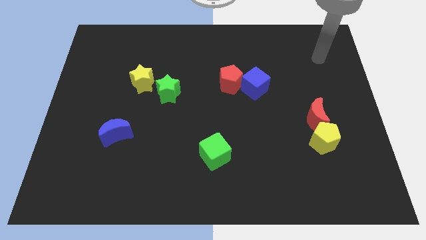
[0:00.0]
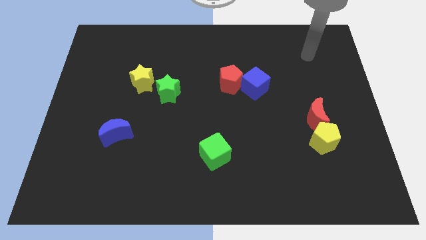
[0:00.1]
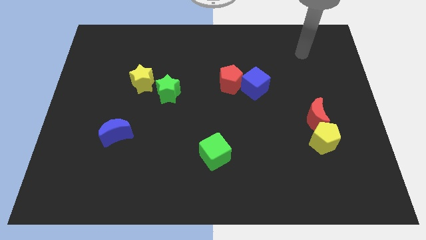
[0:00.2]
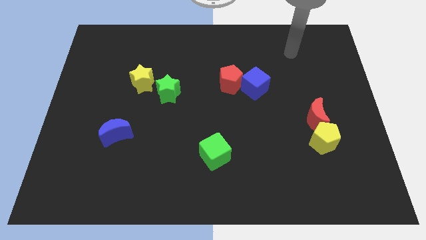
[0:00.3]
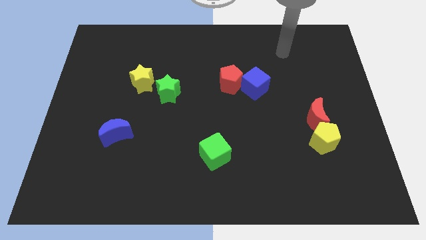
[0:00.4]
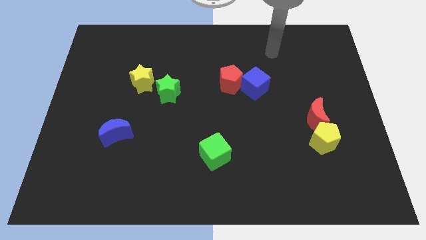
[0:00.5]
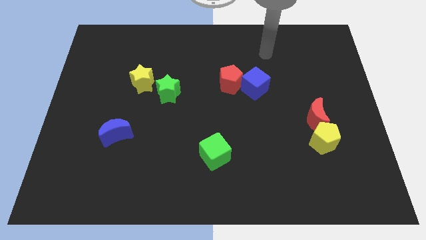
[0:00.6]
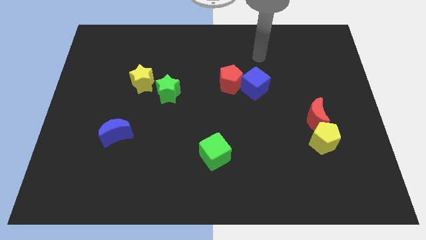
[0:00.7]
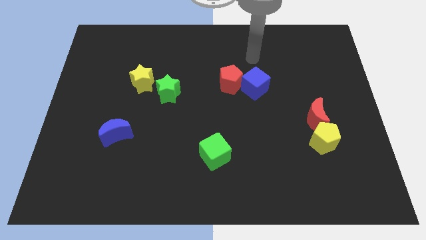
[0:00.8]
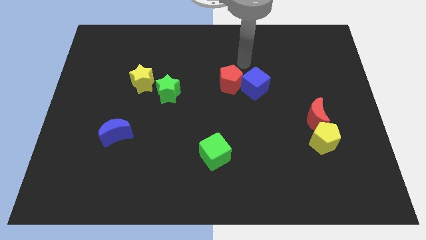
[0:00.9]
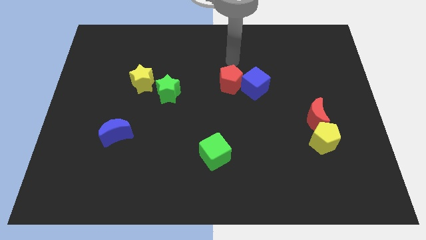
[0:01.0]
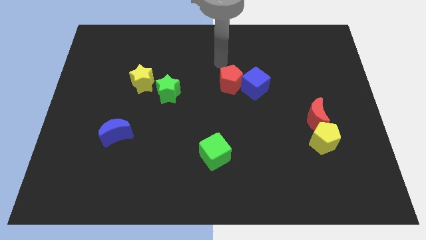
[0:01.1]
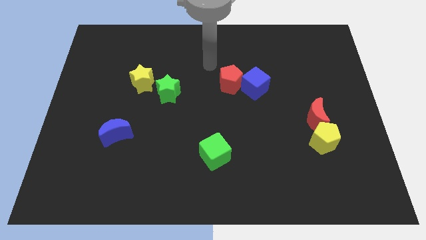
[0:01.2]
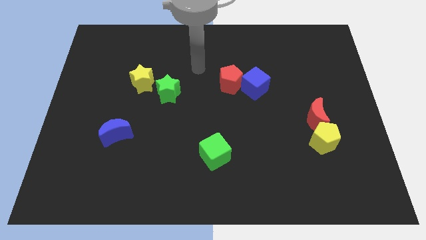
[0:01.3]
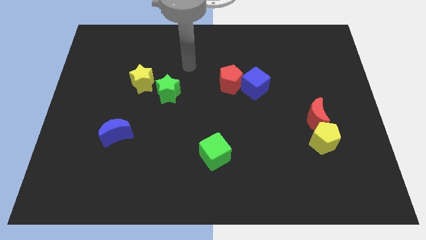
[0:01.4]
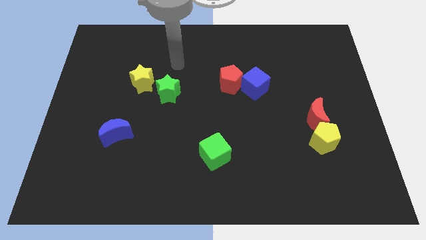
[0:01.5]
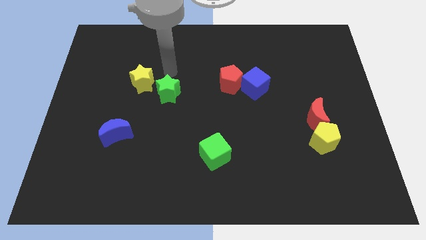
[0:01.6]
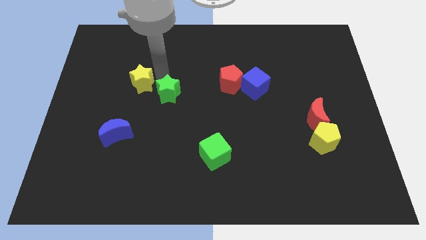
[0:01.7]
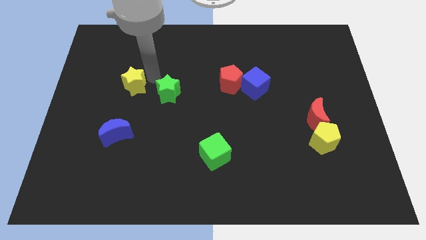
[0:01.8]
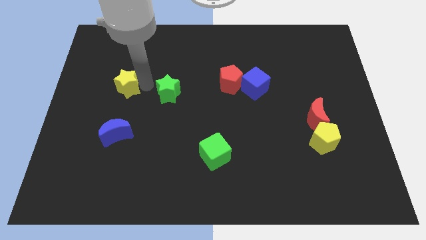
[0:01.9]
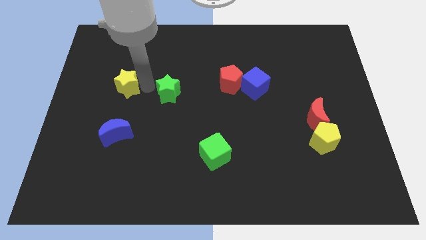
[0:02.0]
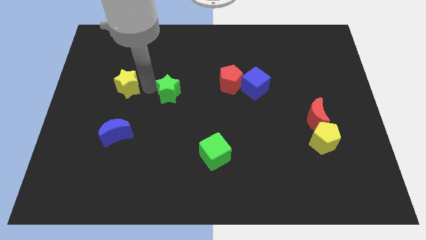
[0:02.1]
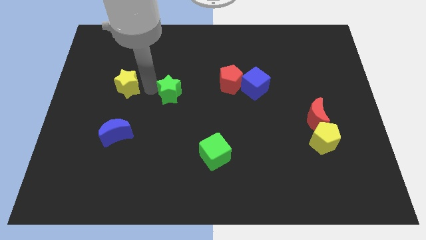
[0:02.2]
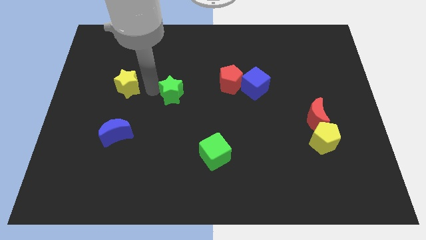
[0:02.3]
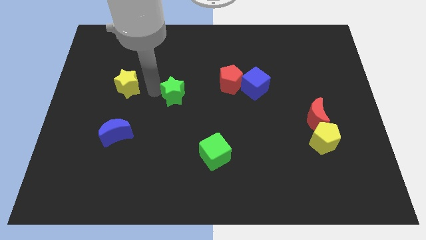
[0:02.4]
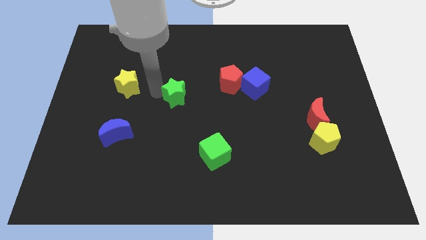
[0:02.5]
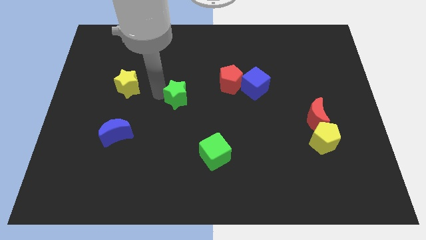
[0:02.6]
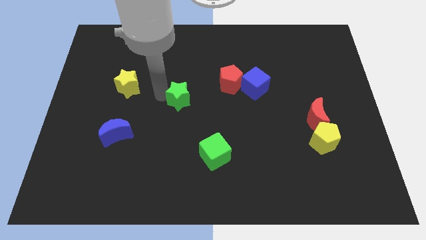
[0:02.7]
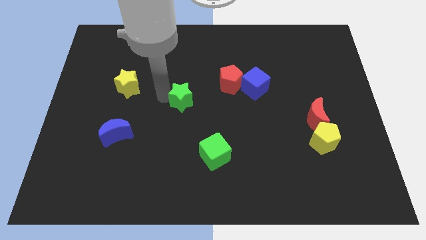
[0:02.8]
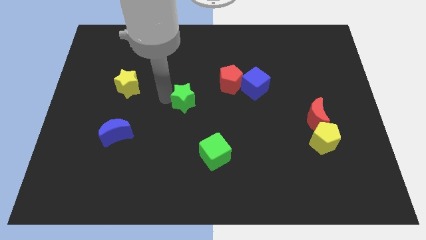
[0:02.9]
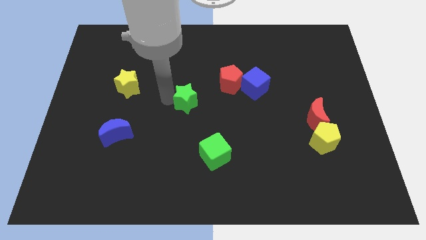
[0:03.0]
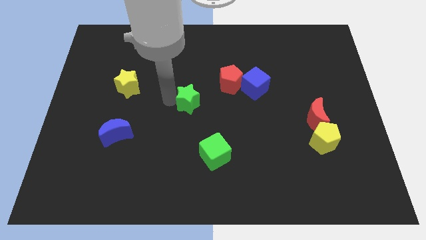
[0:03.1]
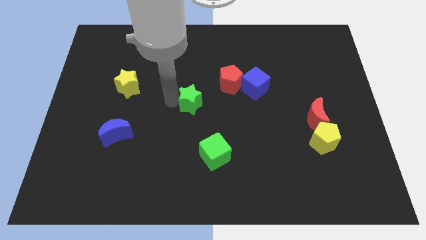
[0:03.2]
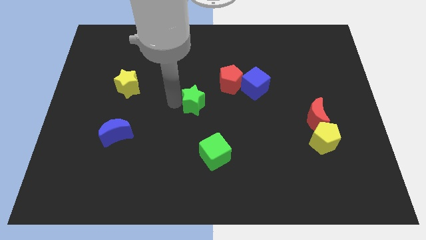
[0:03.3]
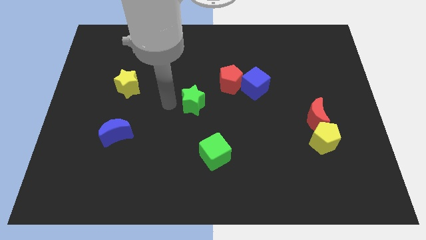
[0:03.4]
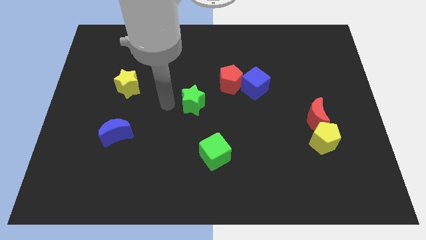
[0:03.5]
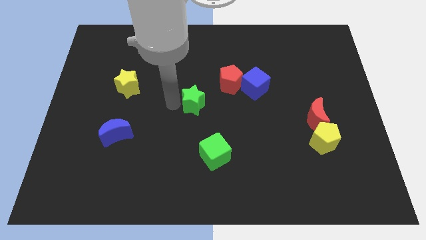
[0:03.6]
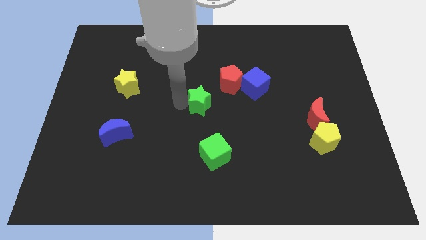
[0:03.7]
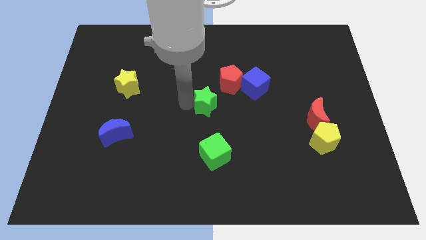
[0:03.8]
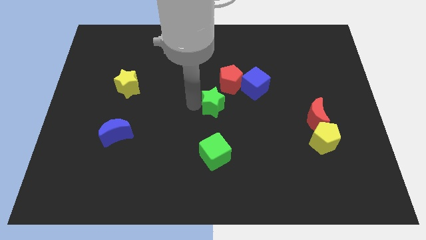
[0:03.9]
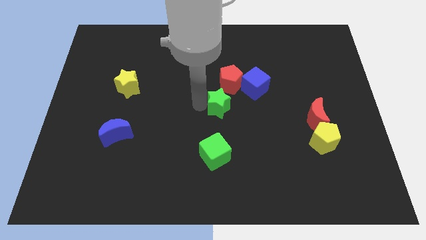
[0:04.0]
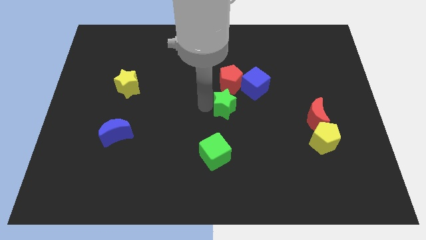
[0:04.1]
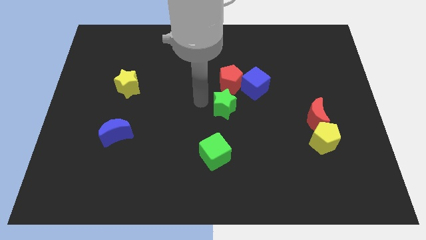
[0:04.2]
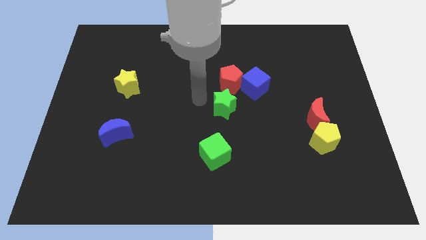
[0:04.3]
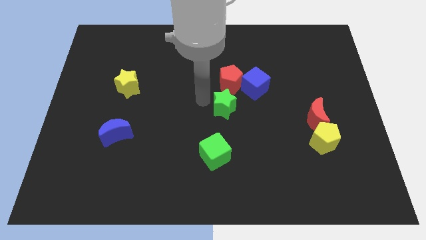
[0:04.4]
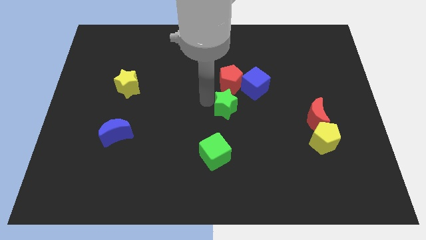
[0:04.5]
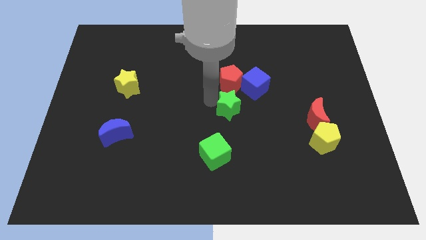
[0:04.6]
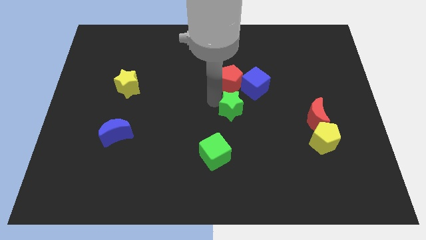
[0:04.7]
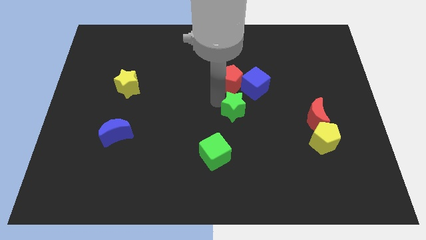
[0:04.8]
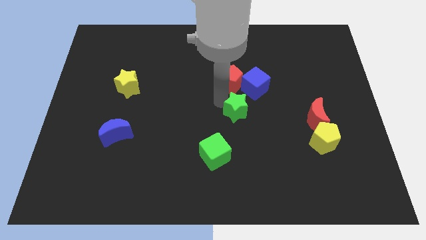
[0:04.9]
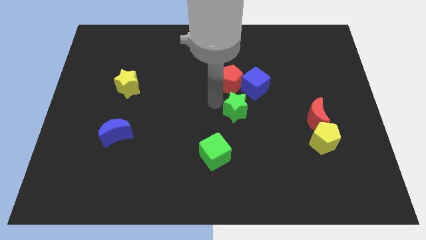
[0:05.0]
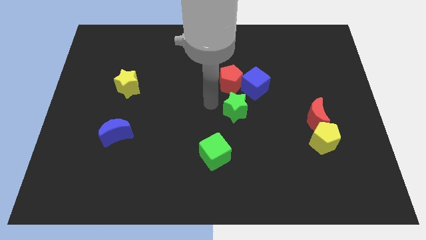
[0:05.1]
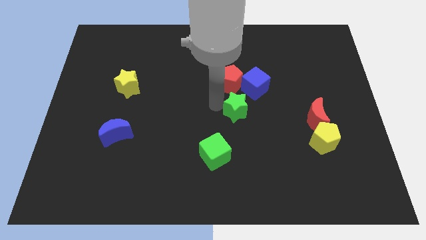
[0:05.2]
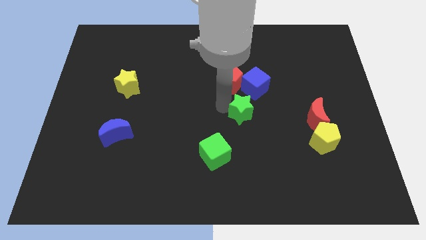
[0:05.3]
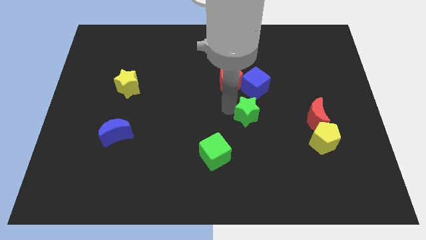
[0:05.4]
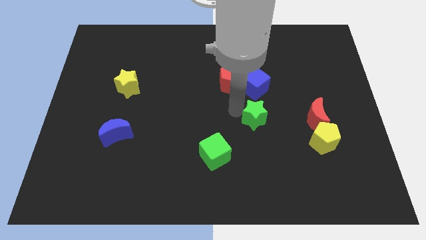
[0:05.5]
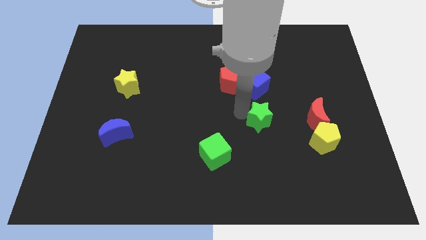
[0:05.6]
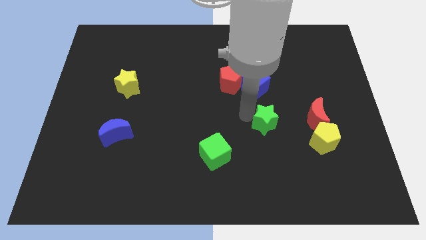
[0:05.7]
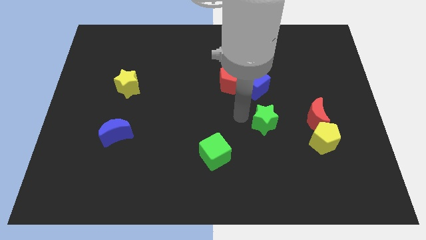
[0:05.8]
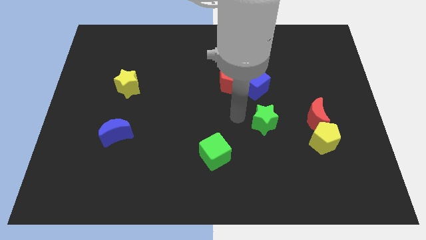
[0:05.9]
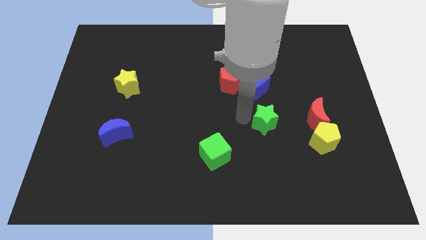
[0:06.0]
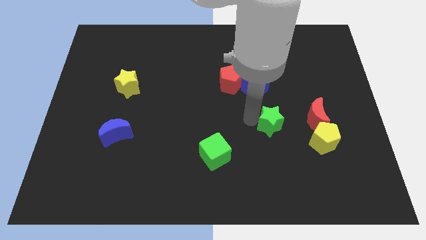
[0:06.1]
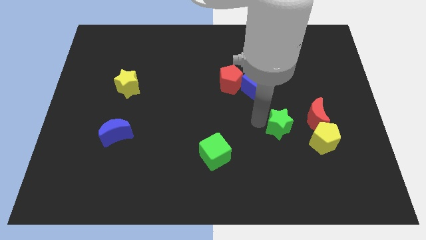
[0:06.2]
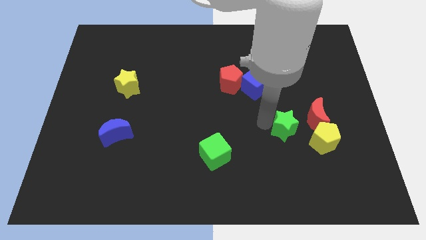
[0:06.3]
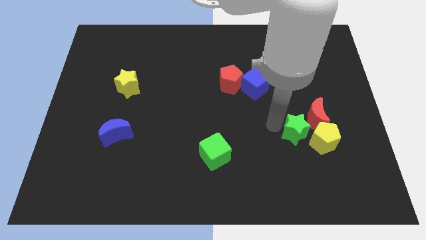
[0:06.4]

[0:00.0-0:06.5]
put the green star close to the yellow pentagon

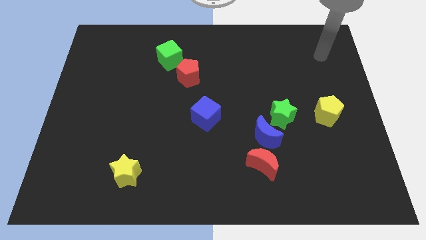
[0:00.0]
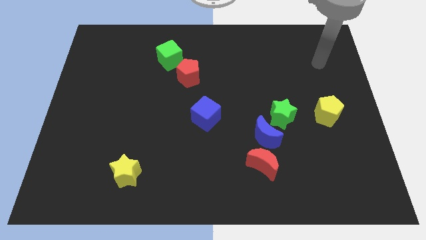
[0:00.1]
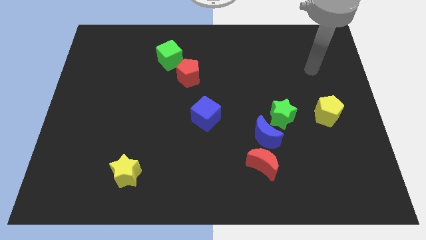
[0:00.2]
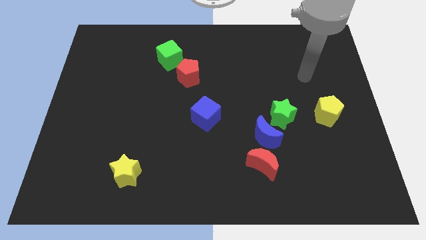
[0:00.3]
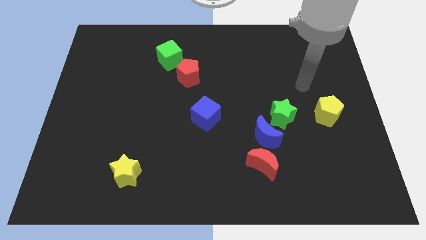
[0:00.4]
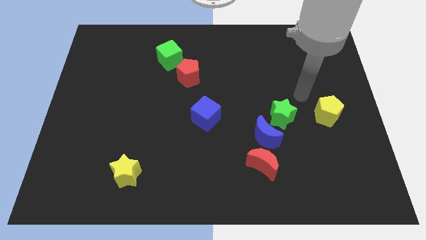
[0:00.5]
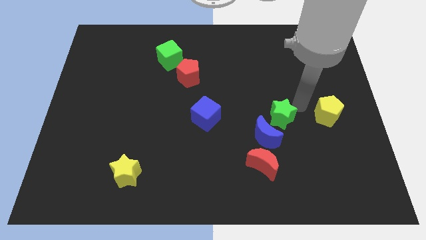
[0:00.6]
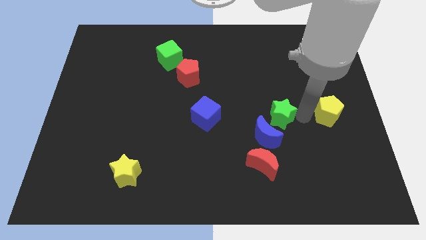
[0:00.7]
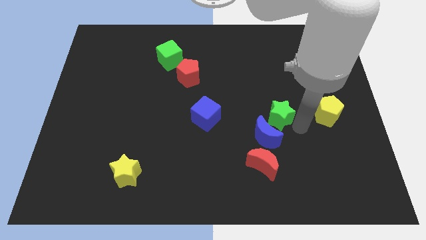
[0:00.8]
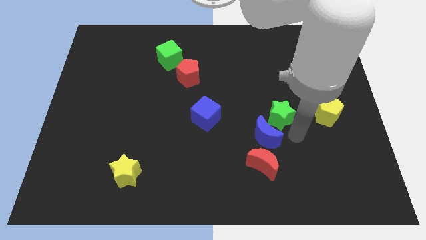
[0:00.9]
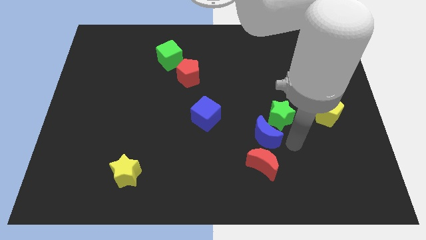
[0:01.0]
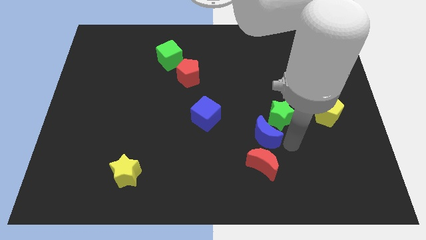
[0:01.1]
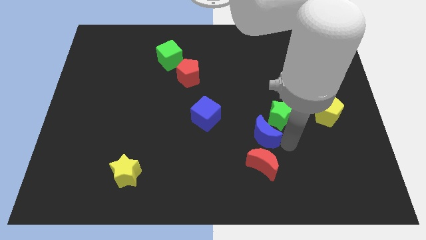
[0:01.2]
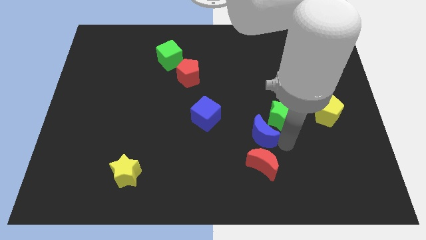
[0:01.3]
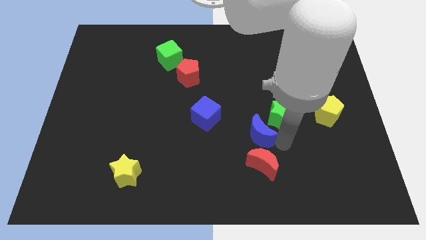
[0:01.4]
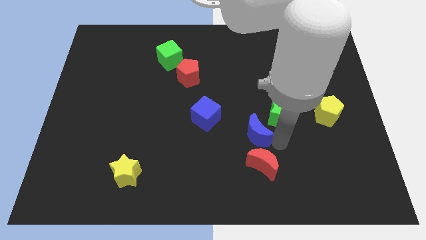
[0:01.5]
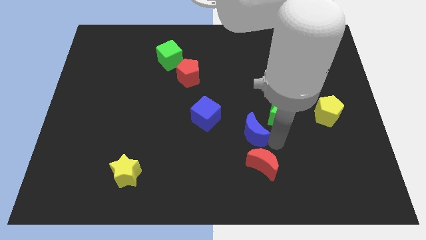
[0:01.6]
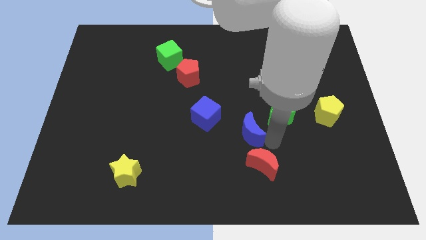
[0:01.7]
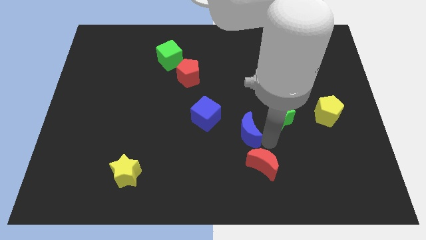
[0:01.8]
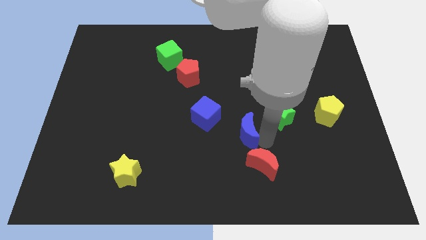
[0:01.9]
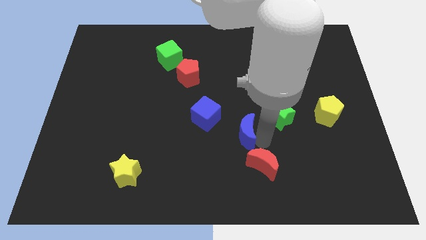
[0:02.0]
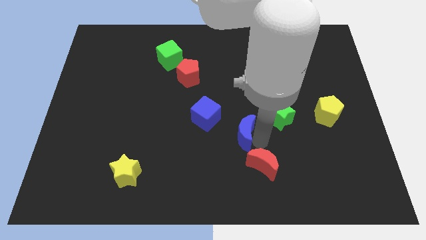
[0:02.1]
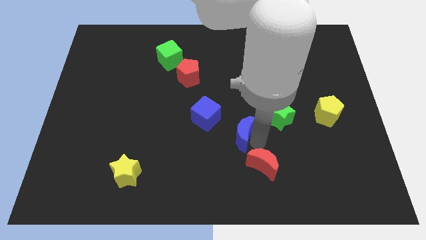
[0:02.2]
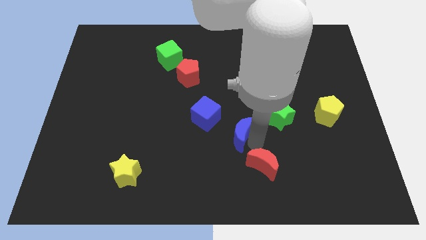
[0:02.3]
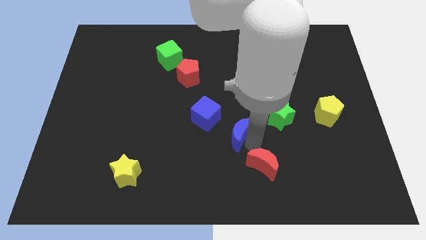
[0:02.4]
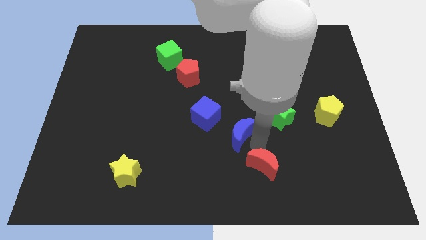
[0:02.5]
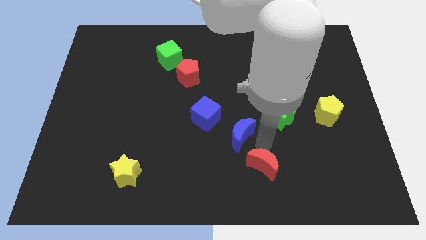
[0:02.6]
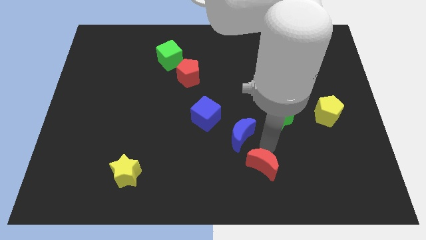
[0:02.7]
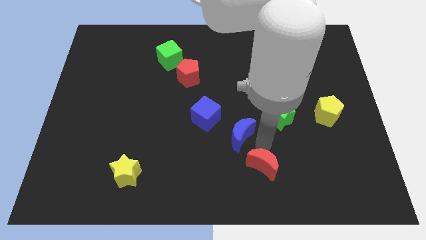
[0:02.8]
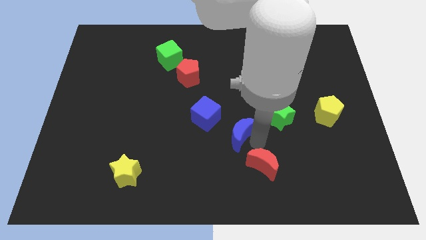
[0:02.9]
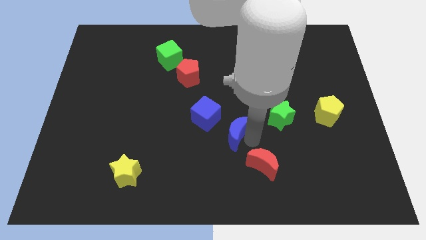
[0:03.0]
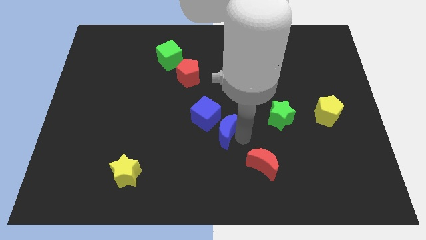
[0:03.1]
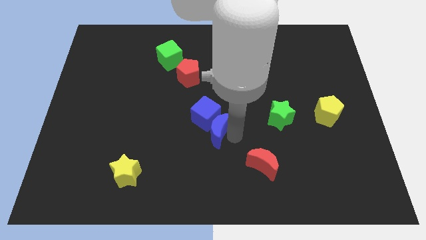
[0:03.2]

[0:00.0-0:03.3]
slide the blue moon next to the blue cube
